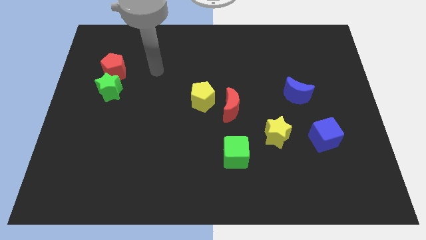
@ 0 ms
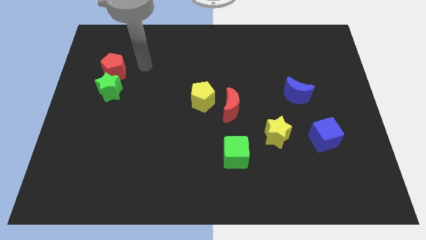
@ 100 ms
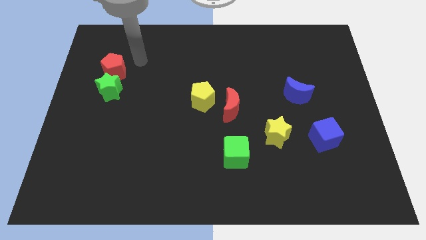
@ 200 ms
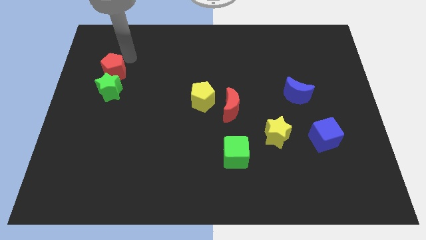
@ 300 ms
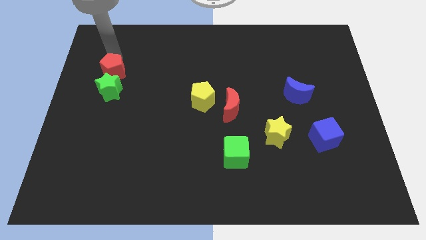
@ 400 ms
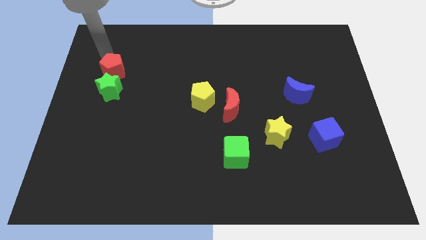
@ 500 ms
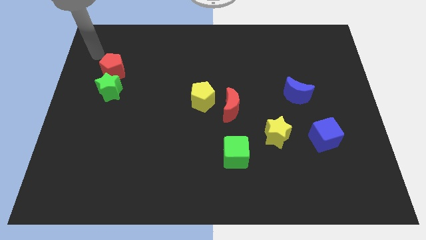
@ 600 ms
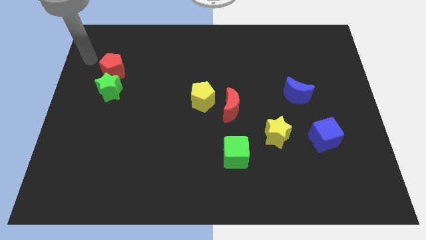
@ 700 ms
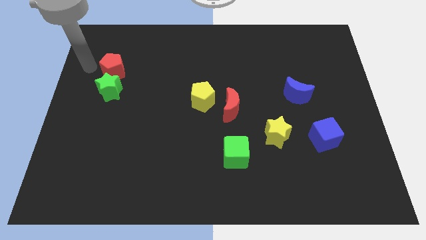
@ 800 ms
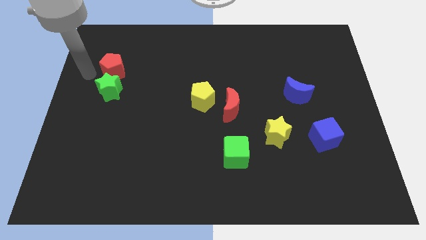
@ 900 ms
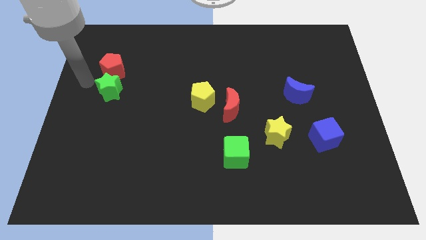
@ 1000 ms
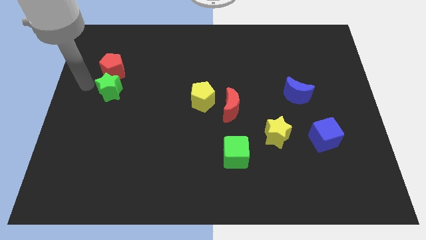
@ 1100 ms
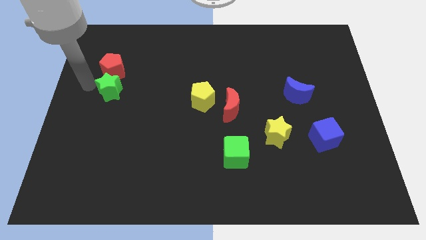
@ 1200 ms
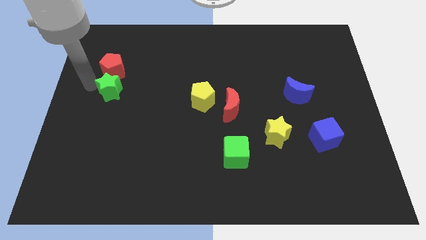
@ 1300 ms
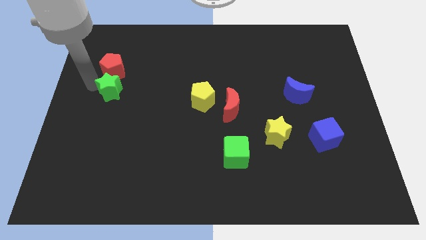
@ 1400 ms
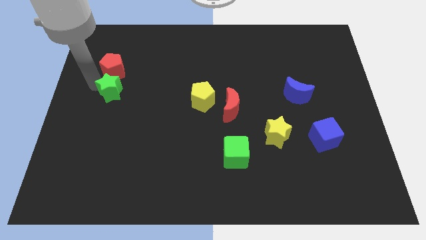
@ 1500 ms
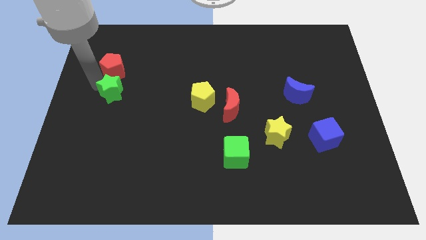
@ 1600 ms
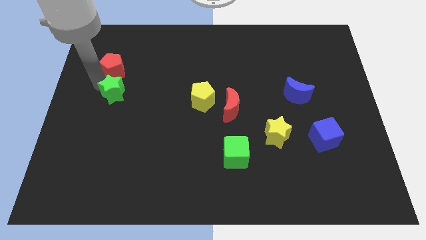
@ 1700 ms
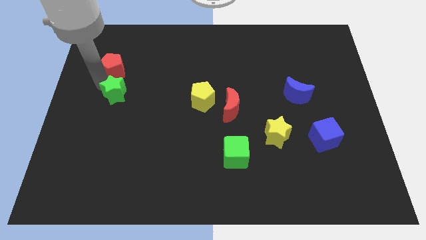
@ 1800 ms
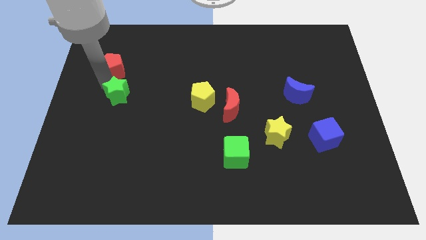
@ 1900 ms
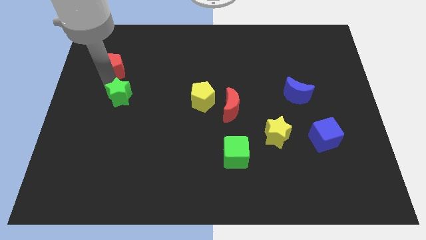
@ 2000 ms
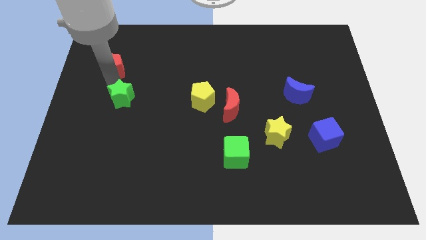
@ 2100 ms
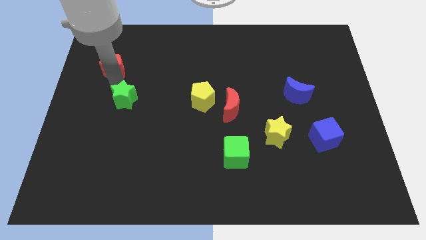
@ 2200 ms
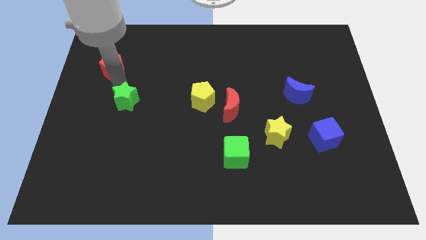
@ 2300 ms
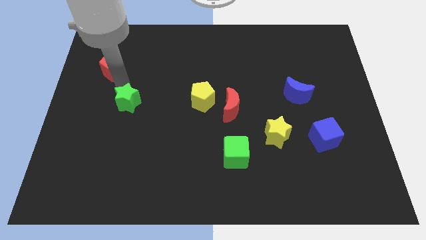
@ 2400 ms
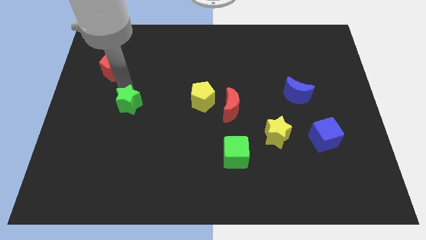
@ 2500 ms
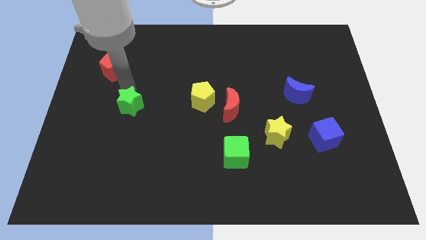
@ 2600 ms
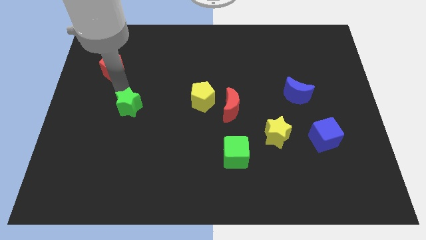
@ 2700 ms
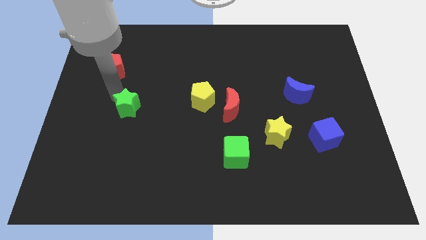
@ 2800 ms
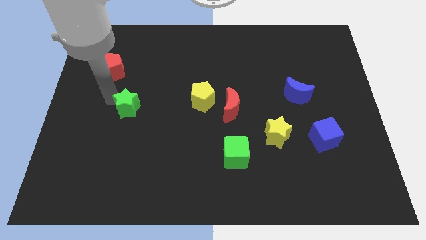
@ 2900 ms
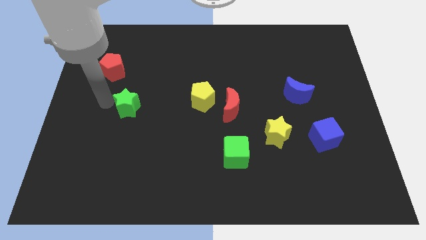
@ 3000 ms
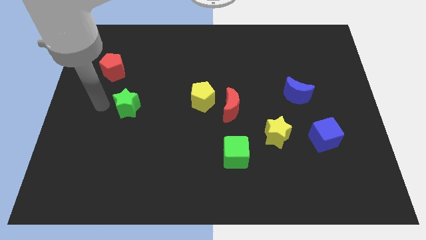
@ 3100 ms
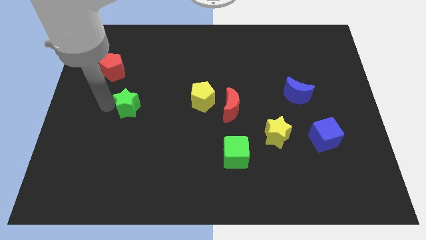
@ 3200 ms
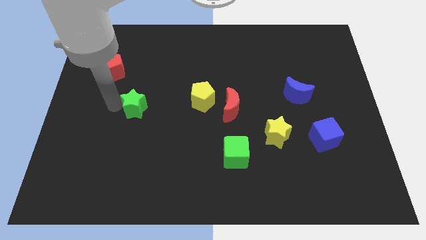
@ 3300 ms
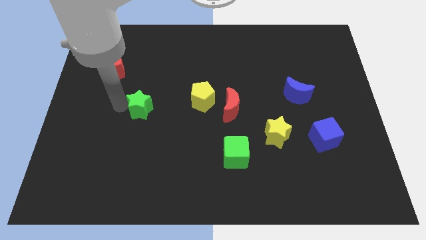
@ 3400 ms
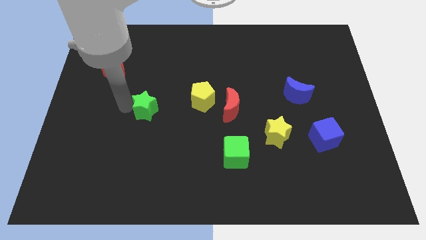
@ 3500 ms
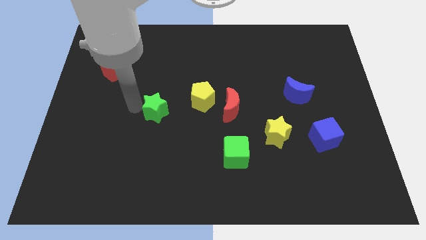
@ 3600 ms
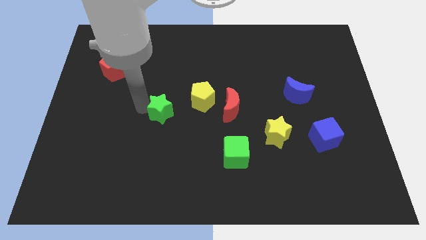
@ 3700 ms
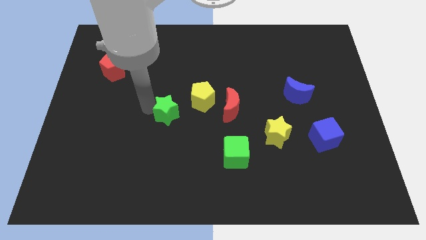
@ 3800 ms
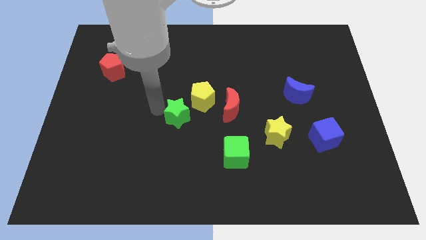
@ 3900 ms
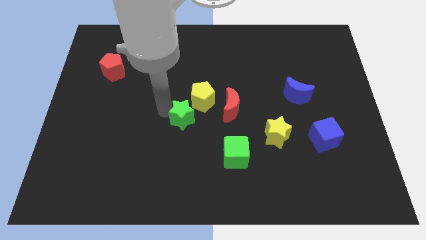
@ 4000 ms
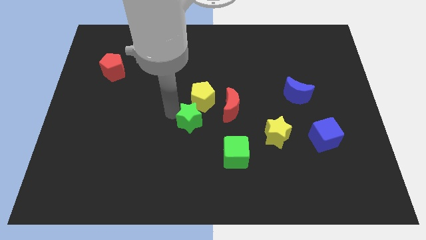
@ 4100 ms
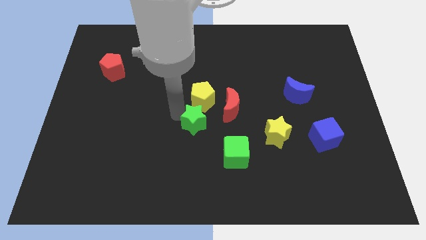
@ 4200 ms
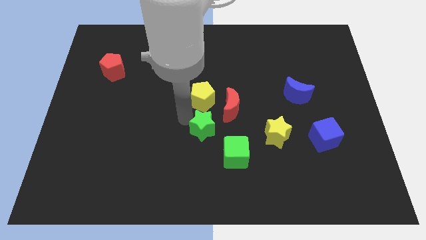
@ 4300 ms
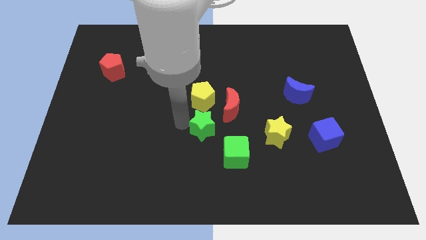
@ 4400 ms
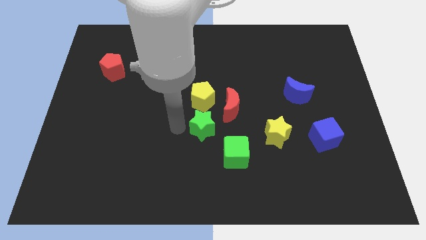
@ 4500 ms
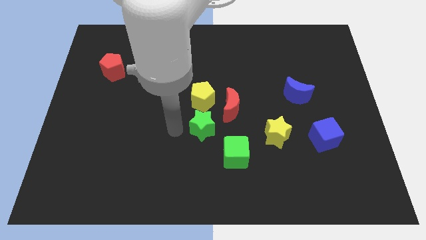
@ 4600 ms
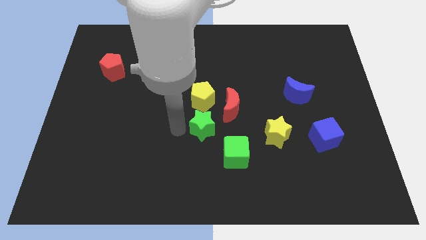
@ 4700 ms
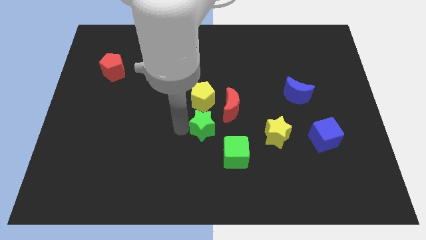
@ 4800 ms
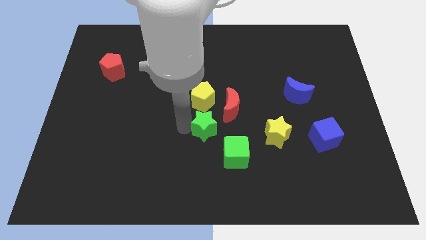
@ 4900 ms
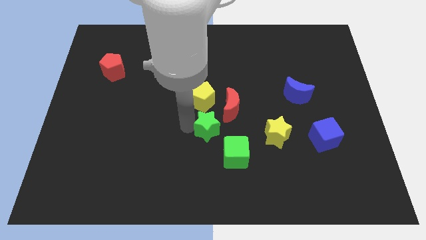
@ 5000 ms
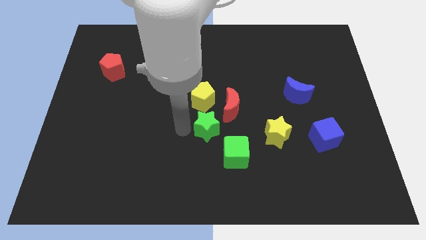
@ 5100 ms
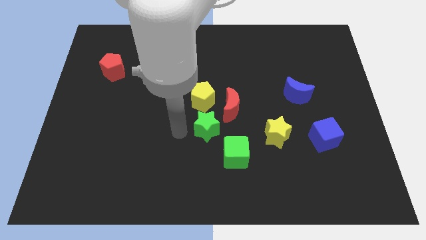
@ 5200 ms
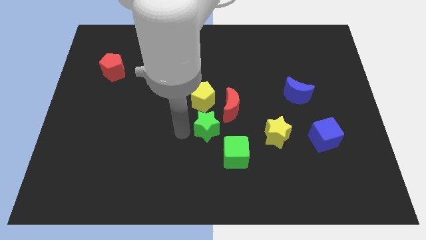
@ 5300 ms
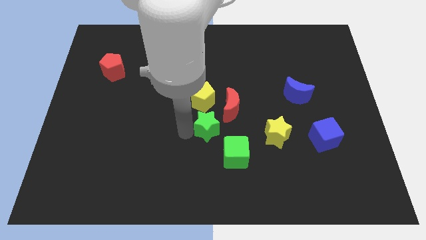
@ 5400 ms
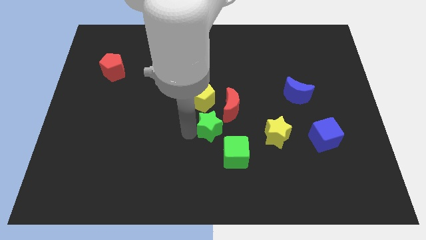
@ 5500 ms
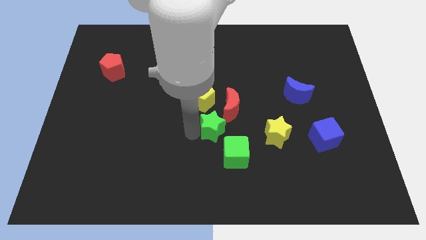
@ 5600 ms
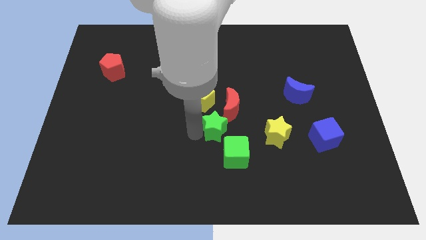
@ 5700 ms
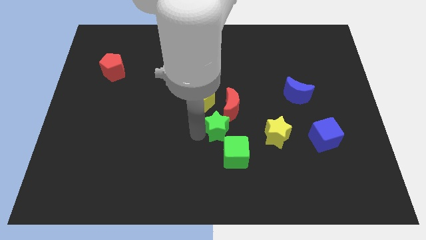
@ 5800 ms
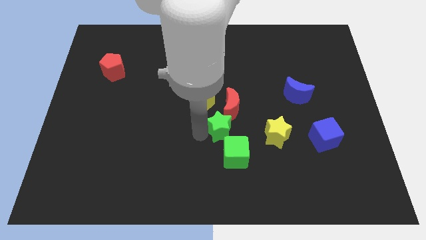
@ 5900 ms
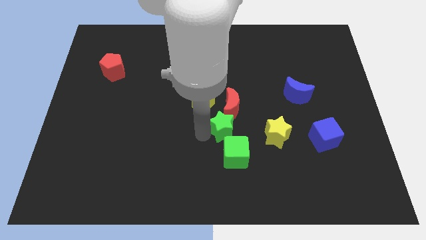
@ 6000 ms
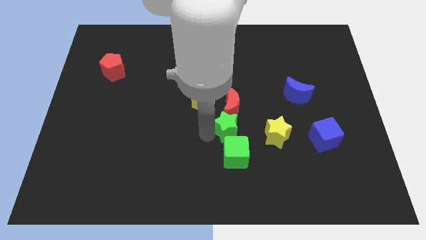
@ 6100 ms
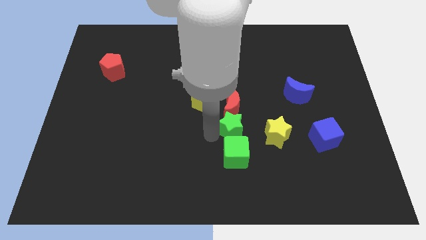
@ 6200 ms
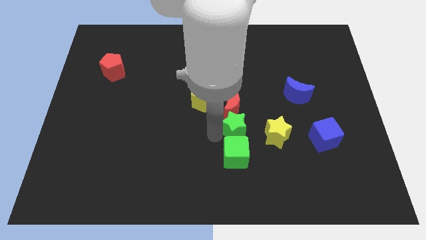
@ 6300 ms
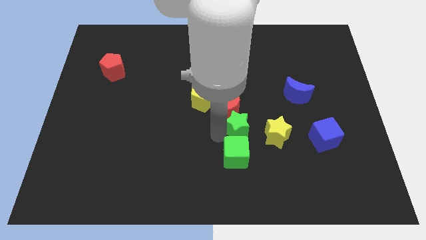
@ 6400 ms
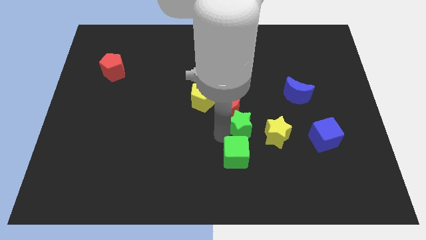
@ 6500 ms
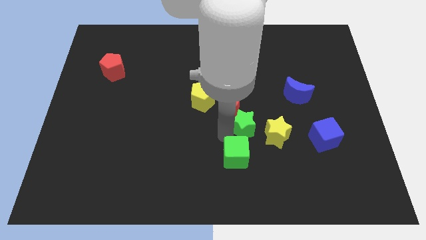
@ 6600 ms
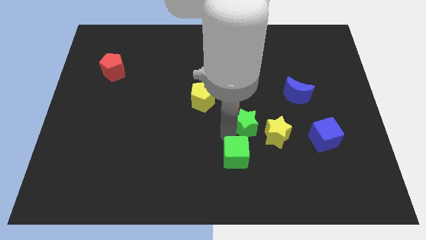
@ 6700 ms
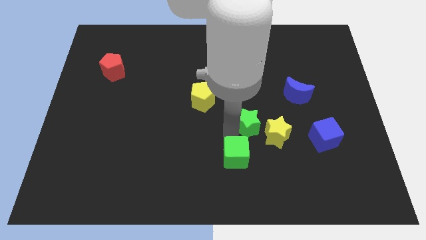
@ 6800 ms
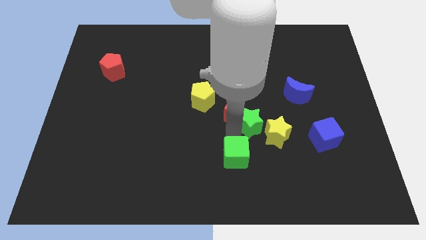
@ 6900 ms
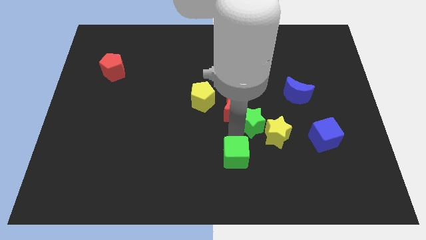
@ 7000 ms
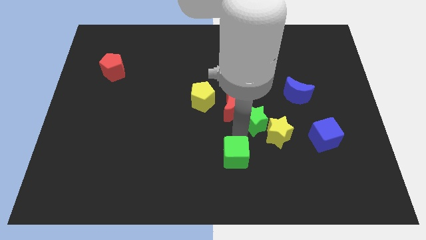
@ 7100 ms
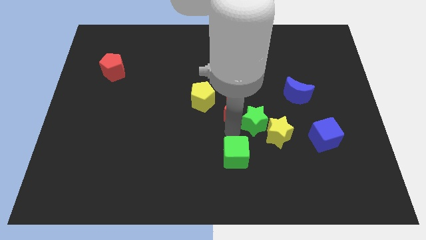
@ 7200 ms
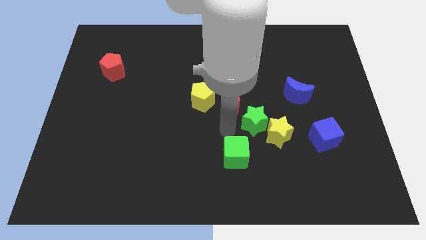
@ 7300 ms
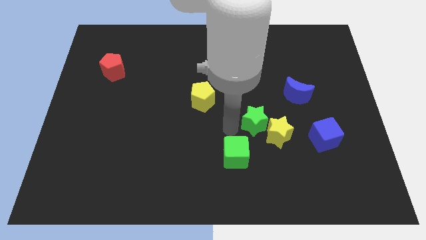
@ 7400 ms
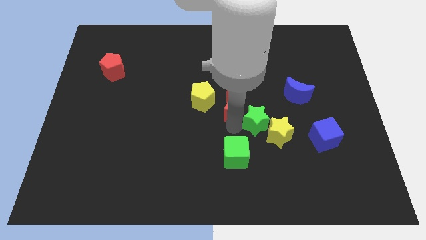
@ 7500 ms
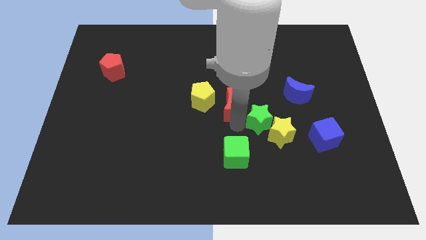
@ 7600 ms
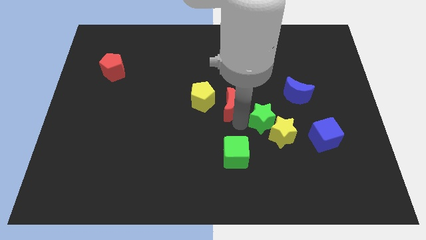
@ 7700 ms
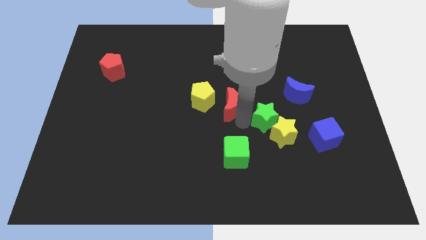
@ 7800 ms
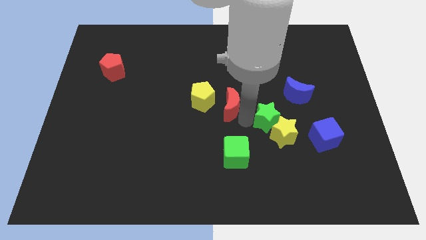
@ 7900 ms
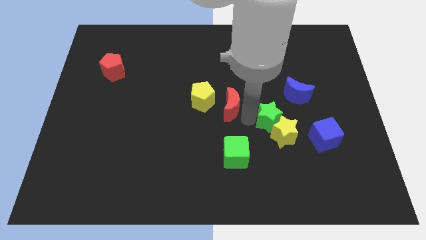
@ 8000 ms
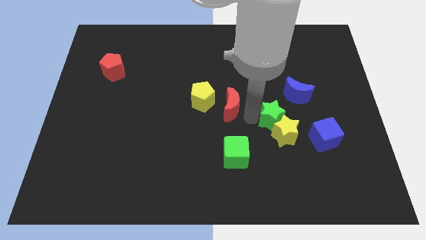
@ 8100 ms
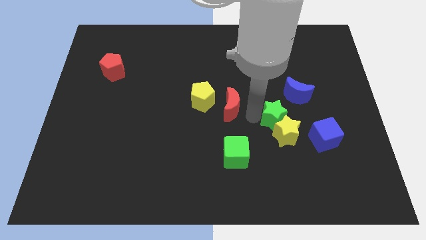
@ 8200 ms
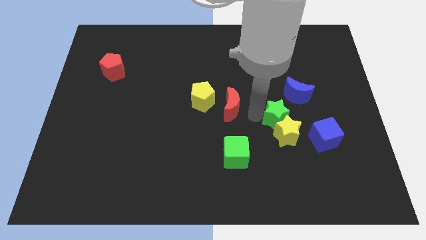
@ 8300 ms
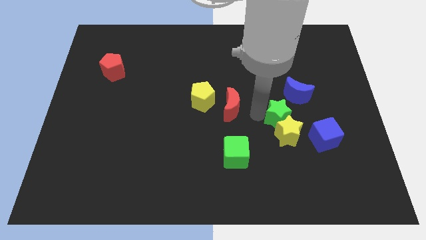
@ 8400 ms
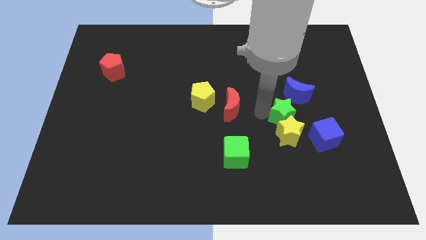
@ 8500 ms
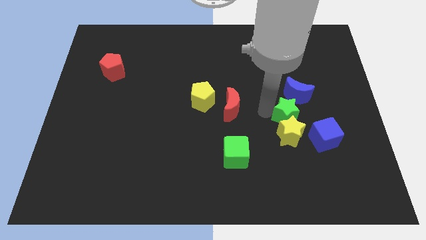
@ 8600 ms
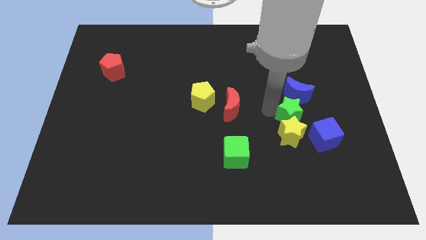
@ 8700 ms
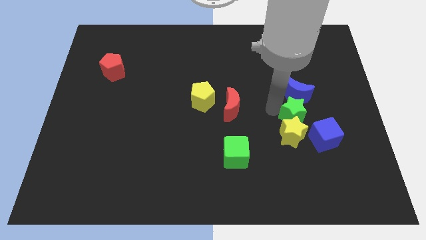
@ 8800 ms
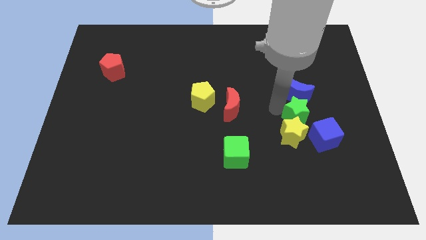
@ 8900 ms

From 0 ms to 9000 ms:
slide the green star to the bottom right side of the blue moon
